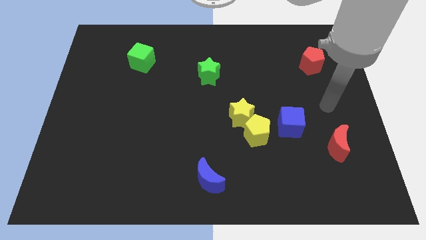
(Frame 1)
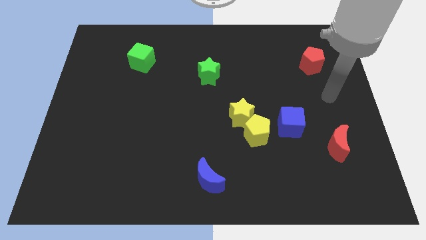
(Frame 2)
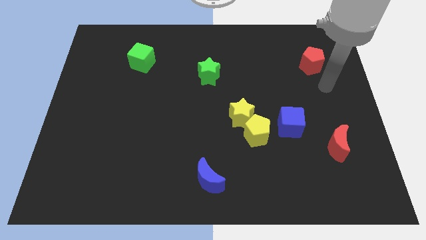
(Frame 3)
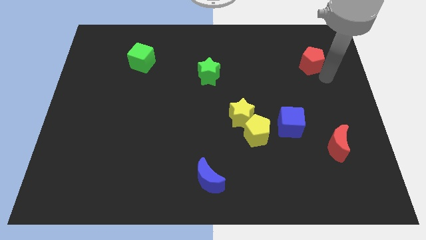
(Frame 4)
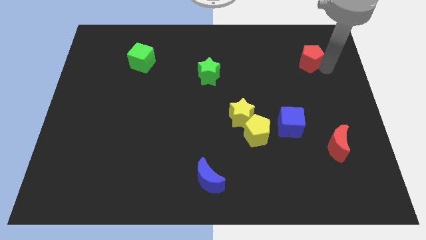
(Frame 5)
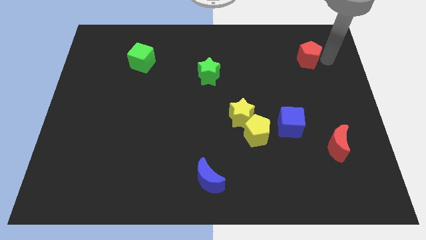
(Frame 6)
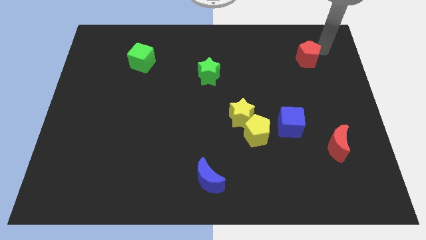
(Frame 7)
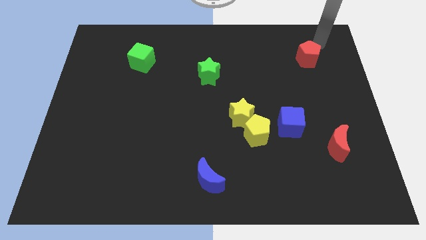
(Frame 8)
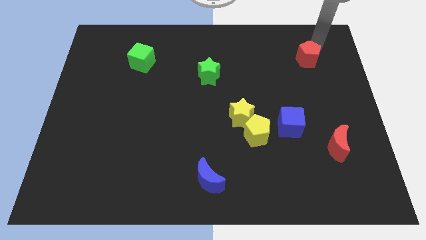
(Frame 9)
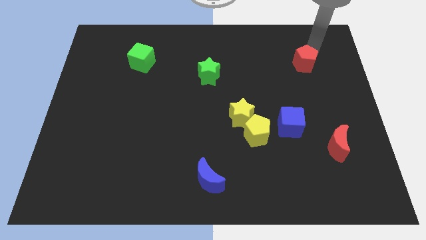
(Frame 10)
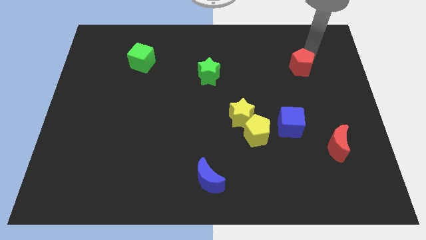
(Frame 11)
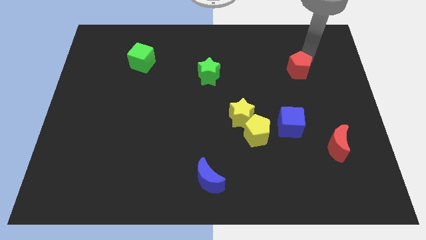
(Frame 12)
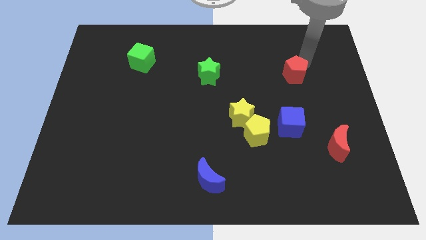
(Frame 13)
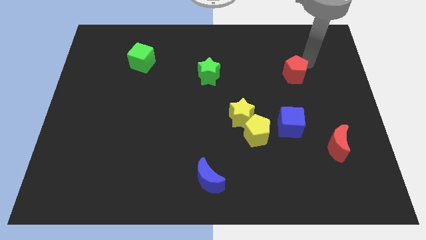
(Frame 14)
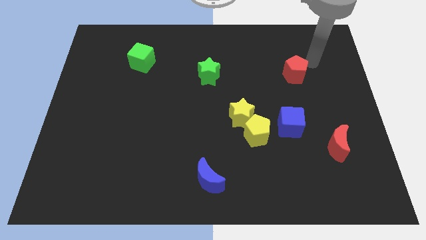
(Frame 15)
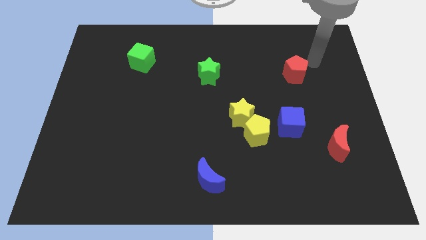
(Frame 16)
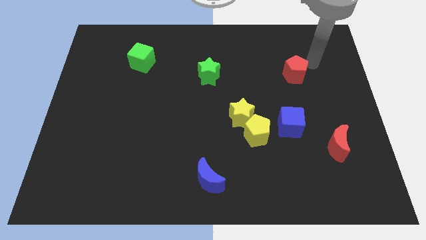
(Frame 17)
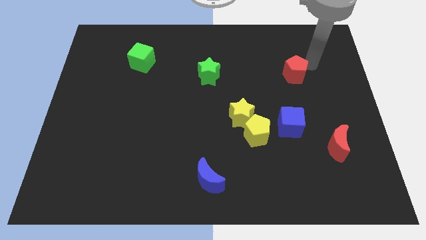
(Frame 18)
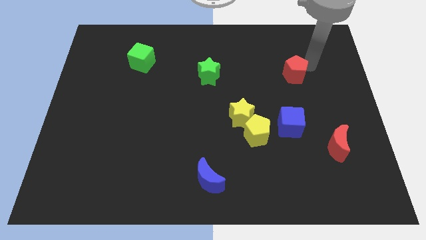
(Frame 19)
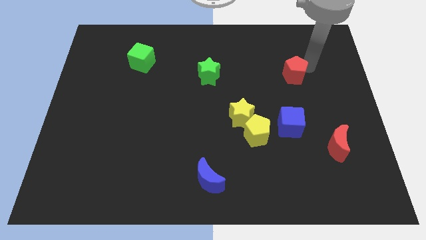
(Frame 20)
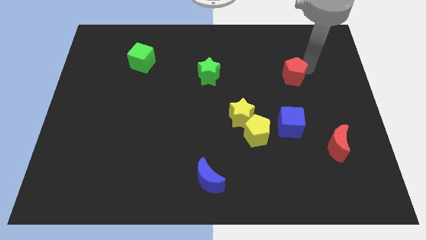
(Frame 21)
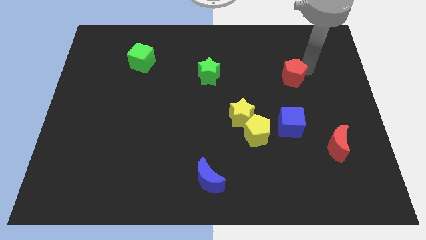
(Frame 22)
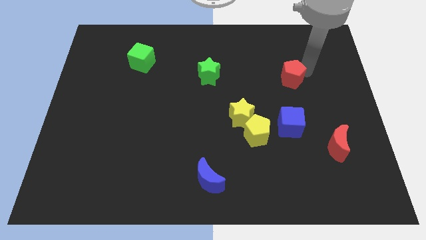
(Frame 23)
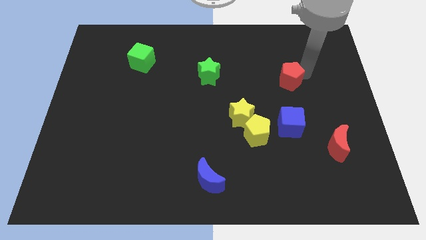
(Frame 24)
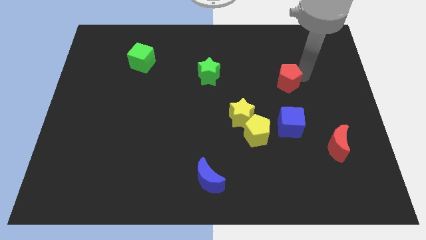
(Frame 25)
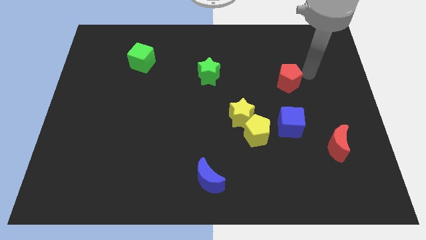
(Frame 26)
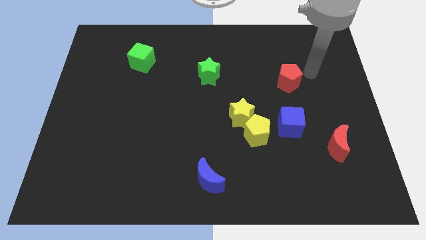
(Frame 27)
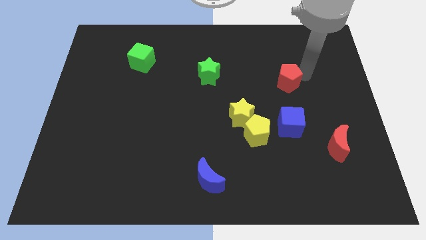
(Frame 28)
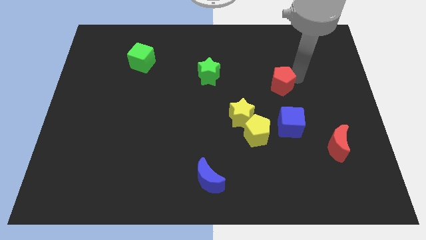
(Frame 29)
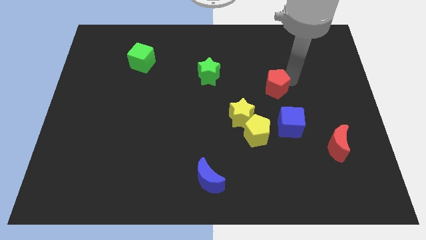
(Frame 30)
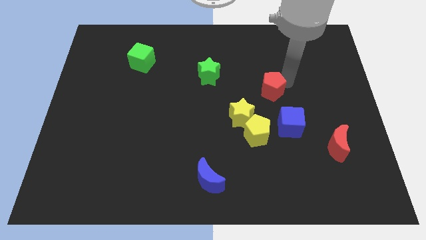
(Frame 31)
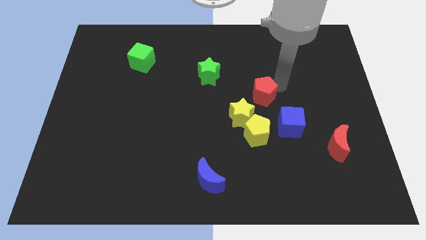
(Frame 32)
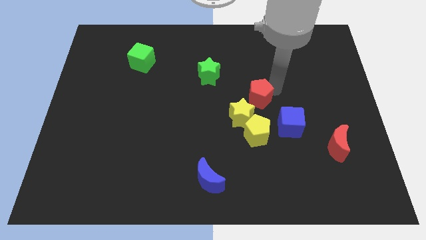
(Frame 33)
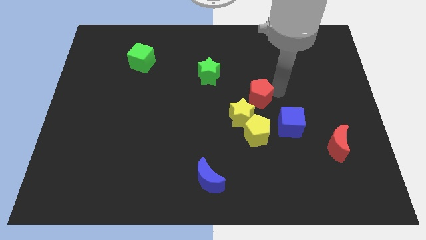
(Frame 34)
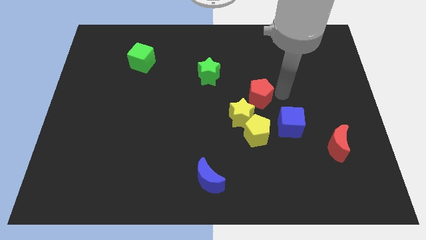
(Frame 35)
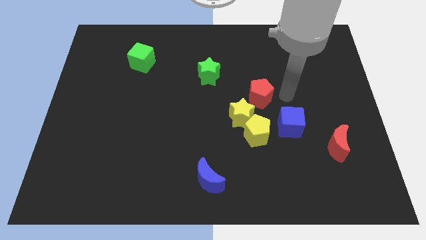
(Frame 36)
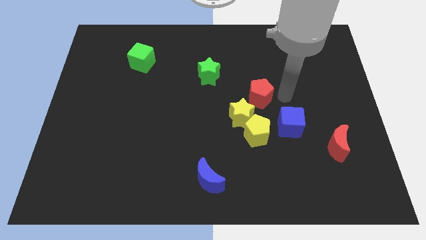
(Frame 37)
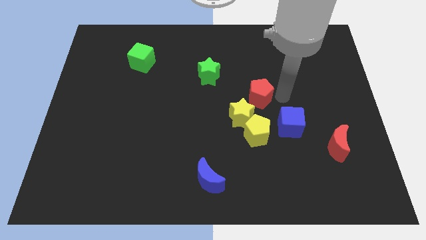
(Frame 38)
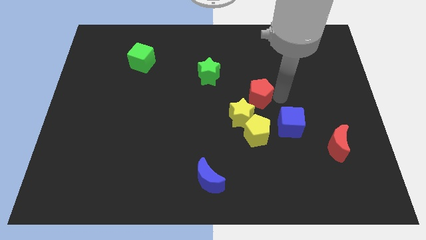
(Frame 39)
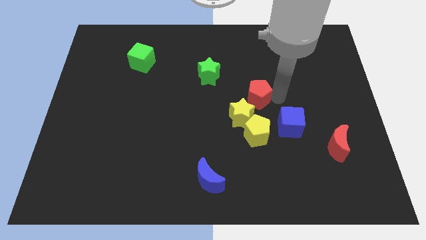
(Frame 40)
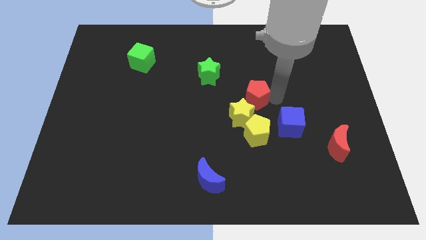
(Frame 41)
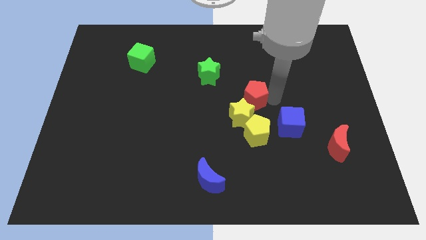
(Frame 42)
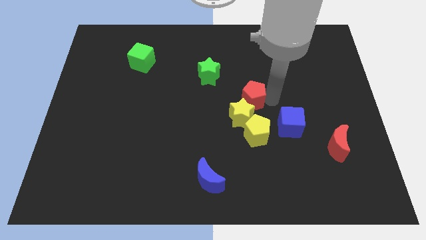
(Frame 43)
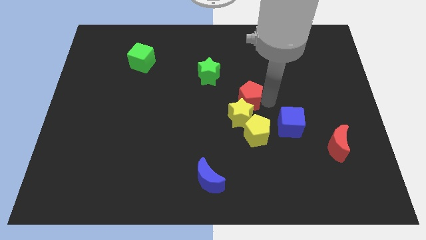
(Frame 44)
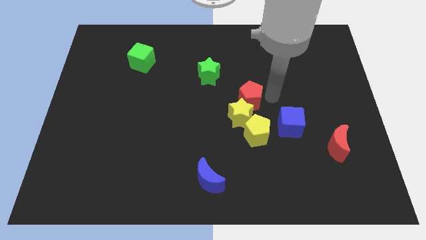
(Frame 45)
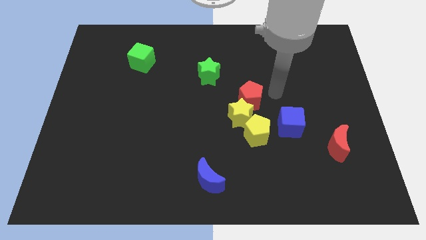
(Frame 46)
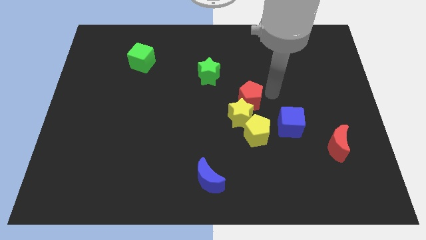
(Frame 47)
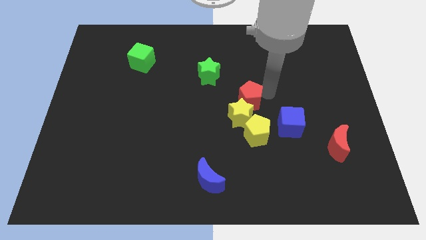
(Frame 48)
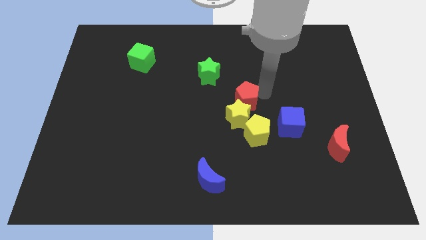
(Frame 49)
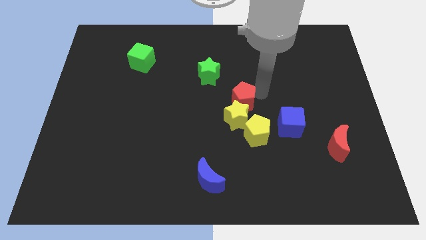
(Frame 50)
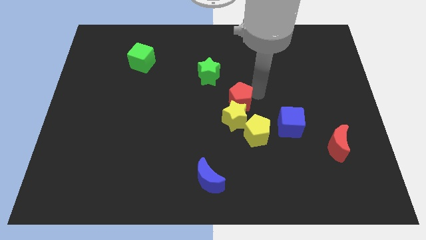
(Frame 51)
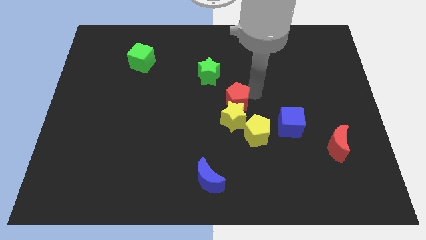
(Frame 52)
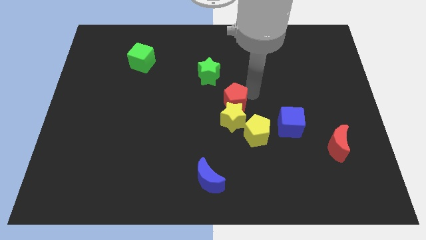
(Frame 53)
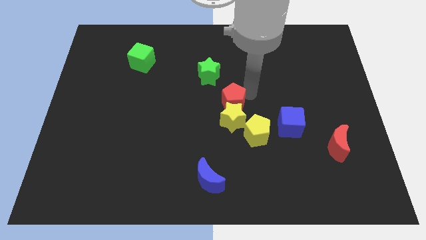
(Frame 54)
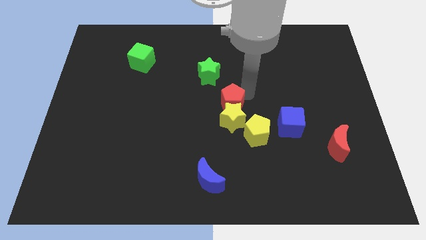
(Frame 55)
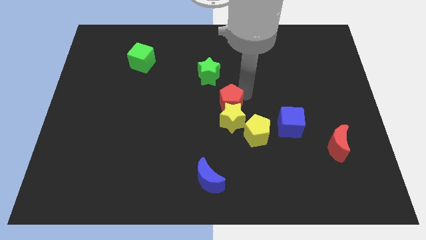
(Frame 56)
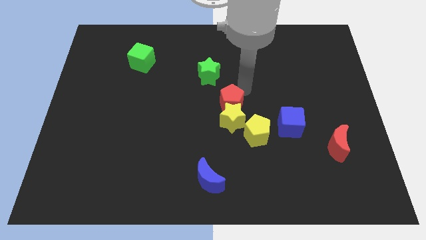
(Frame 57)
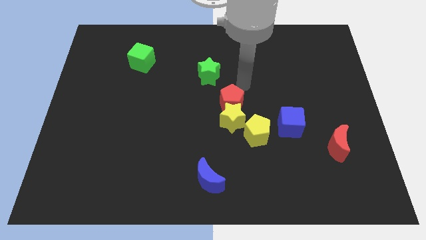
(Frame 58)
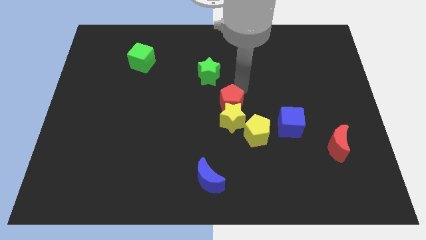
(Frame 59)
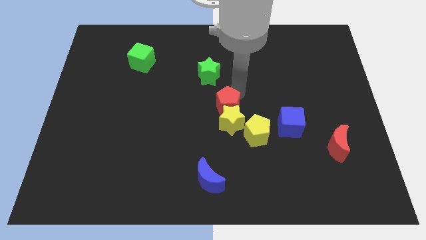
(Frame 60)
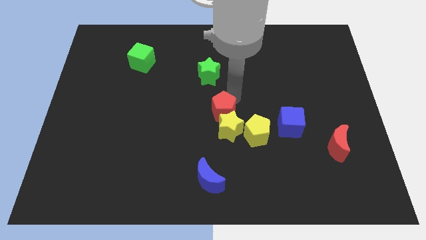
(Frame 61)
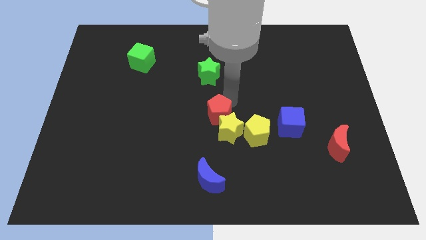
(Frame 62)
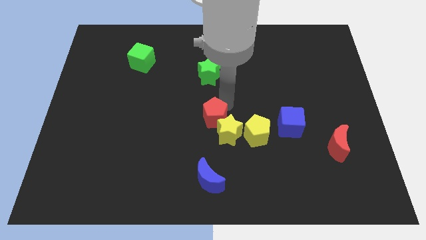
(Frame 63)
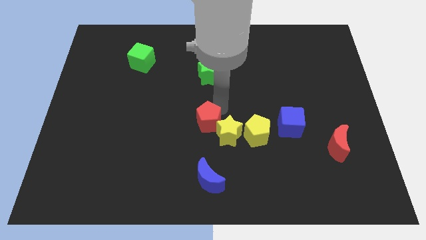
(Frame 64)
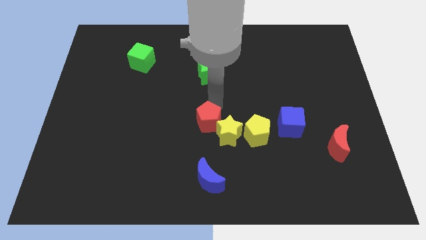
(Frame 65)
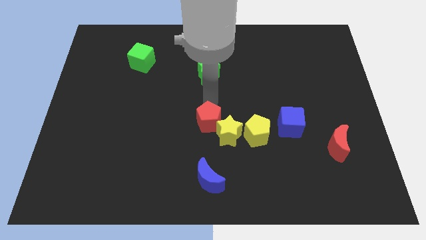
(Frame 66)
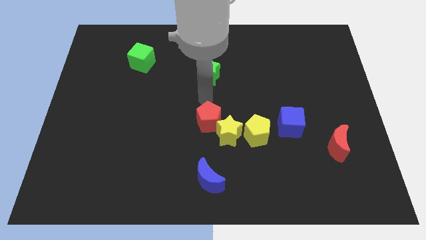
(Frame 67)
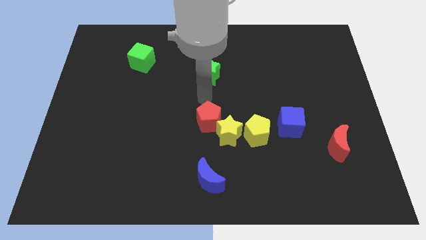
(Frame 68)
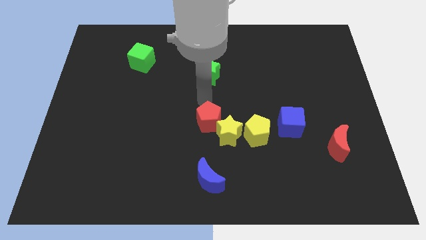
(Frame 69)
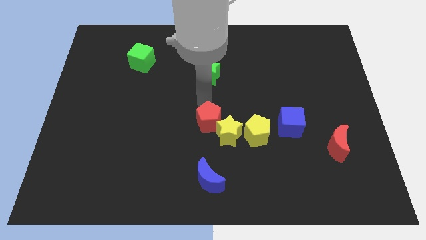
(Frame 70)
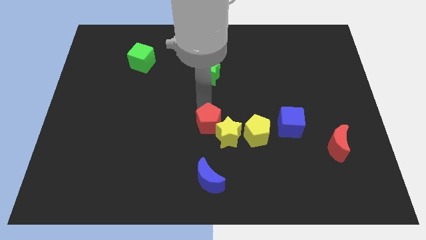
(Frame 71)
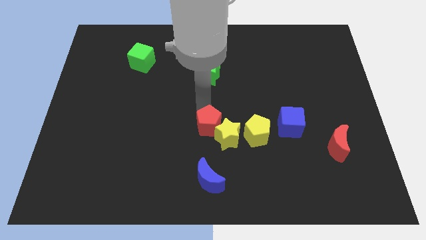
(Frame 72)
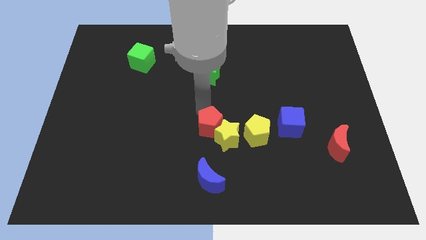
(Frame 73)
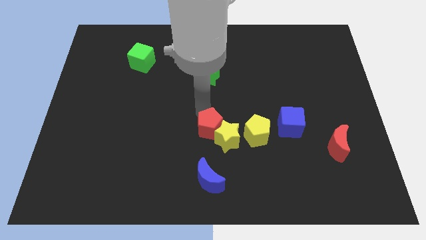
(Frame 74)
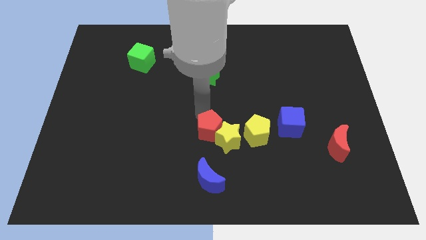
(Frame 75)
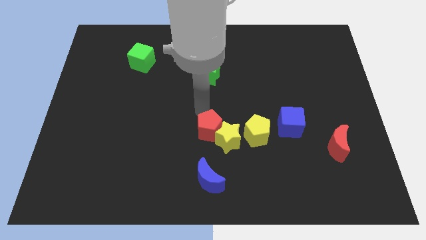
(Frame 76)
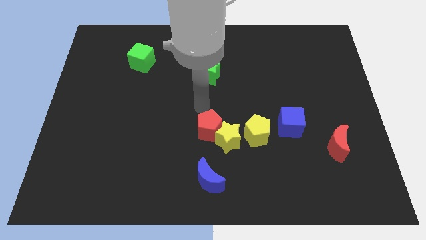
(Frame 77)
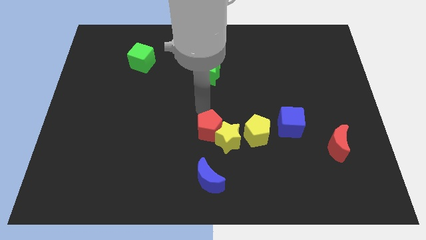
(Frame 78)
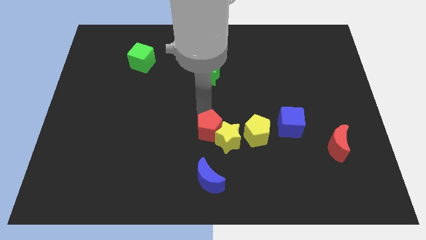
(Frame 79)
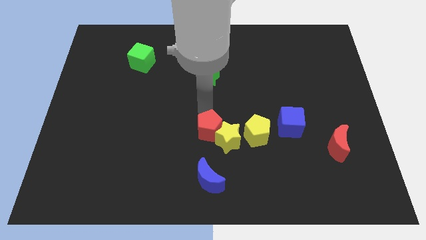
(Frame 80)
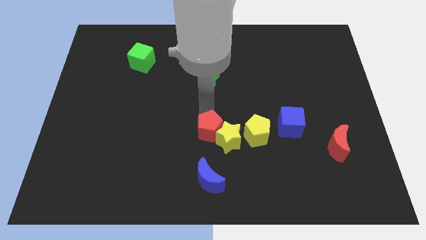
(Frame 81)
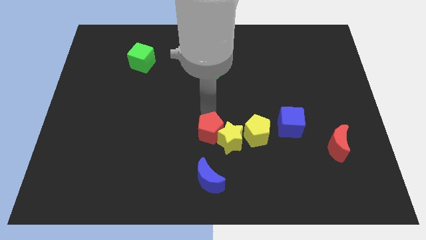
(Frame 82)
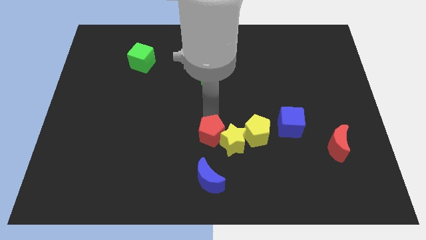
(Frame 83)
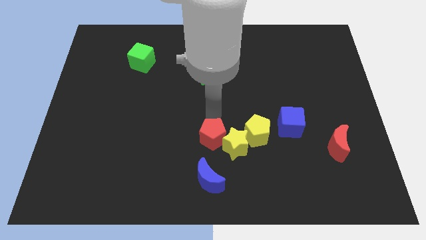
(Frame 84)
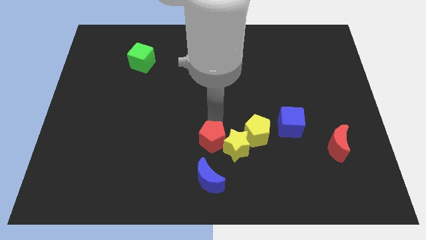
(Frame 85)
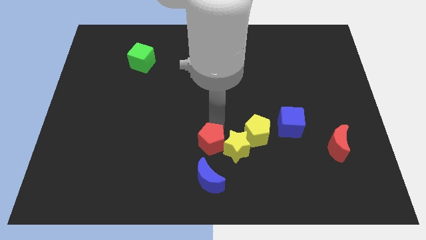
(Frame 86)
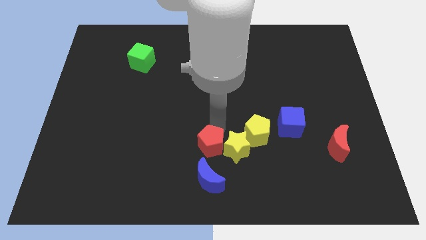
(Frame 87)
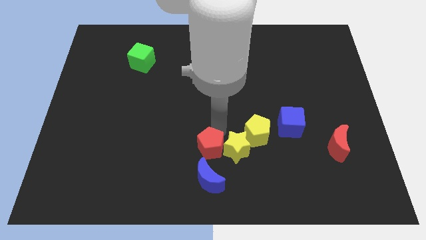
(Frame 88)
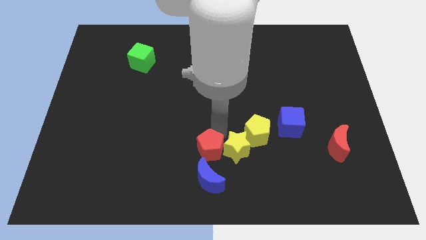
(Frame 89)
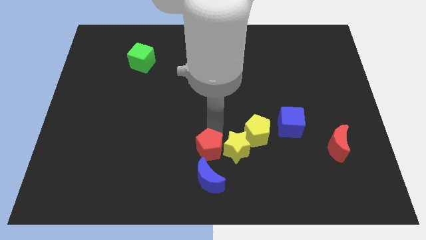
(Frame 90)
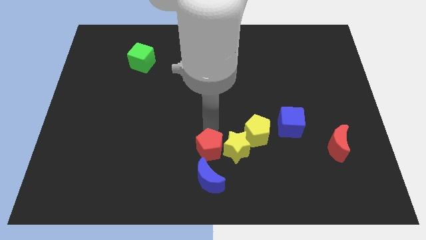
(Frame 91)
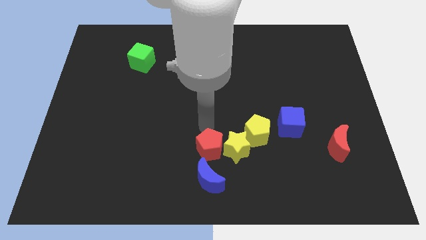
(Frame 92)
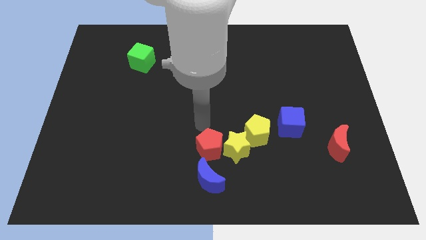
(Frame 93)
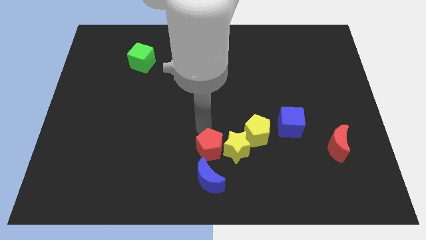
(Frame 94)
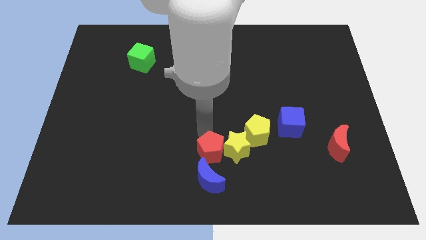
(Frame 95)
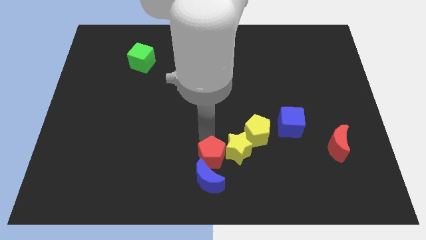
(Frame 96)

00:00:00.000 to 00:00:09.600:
put the red pentagon to the blue moon
